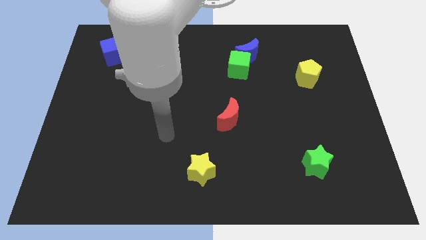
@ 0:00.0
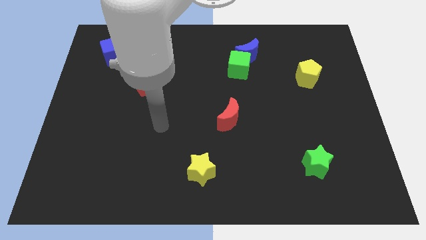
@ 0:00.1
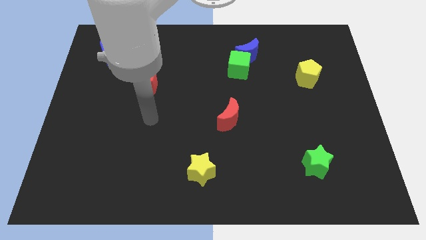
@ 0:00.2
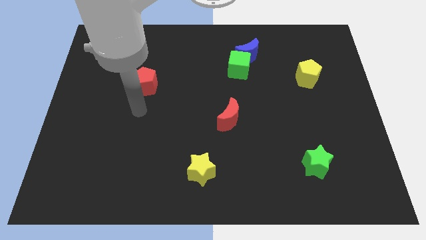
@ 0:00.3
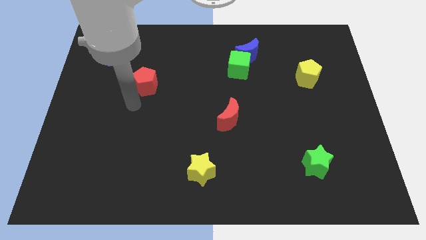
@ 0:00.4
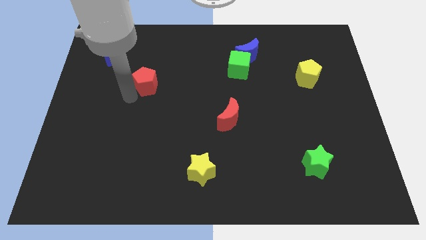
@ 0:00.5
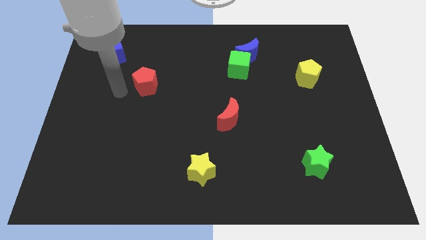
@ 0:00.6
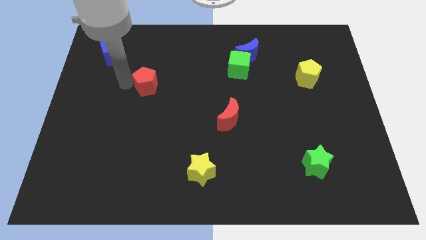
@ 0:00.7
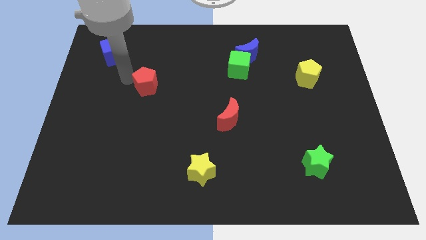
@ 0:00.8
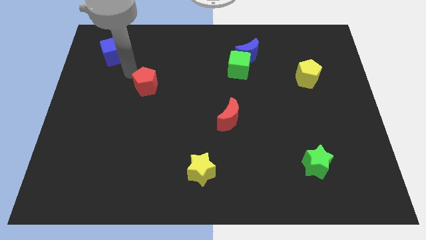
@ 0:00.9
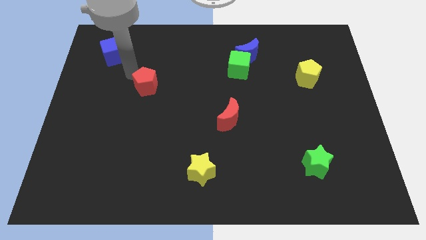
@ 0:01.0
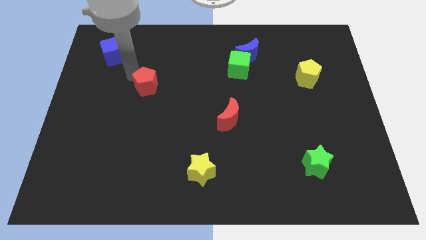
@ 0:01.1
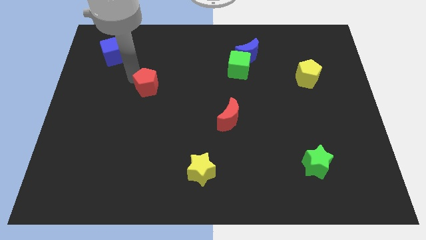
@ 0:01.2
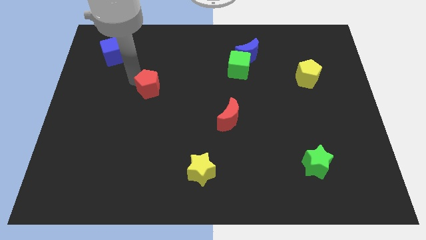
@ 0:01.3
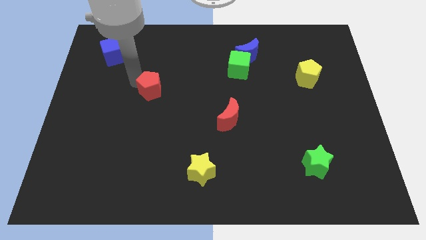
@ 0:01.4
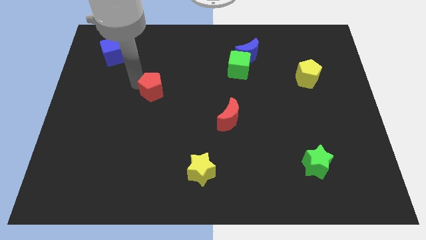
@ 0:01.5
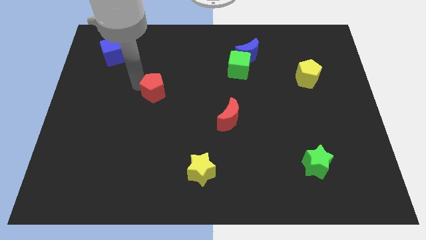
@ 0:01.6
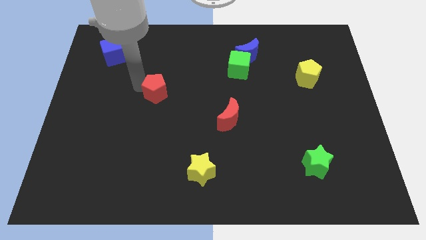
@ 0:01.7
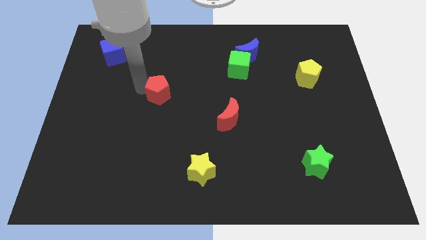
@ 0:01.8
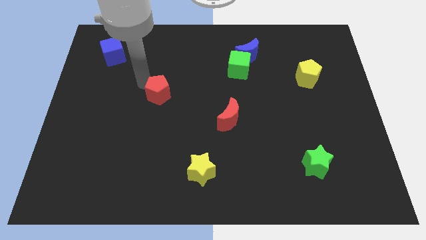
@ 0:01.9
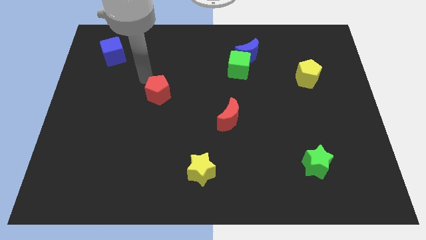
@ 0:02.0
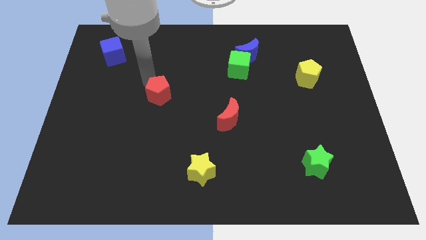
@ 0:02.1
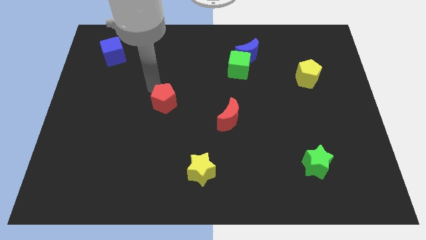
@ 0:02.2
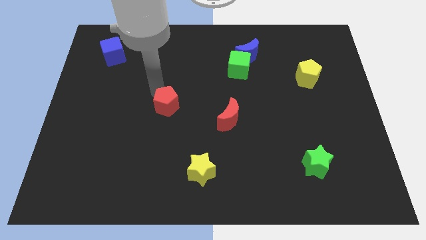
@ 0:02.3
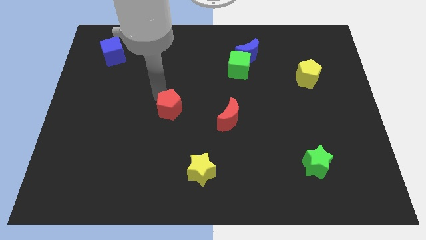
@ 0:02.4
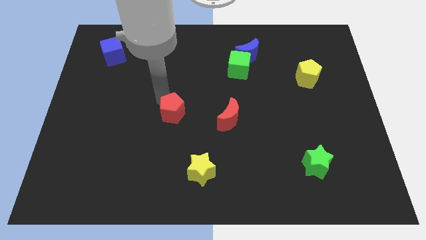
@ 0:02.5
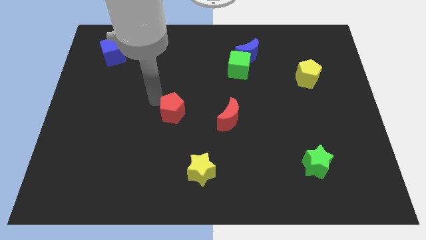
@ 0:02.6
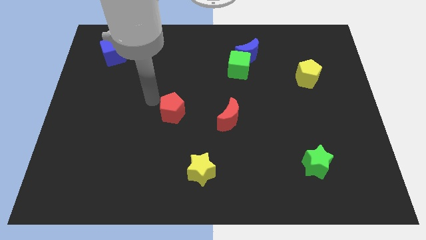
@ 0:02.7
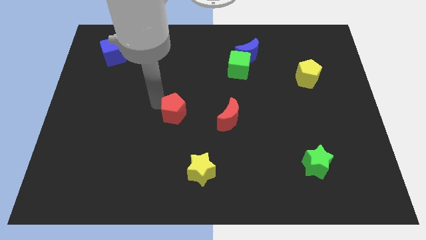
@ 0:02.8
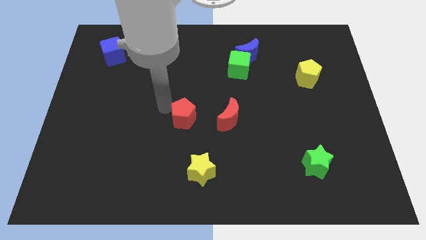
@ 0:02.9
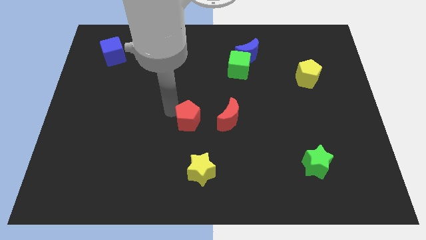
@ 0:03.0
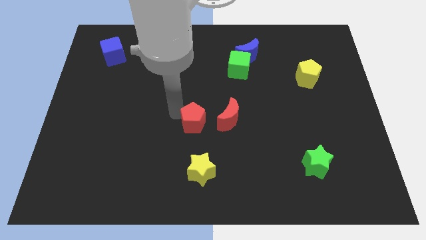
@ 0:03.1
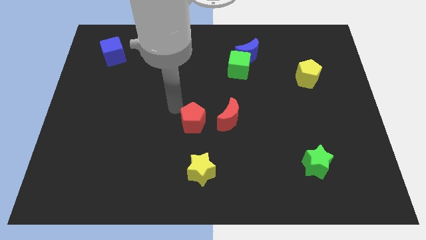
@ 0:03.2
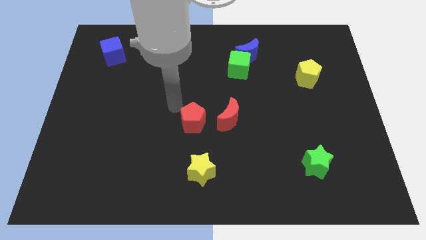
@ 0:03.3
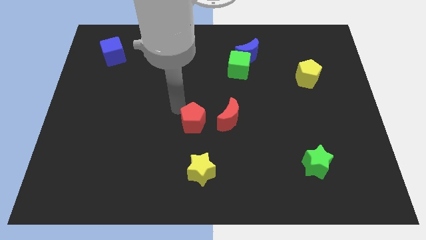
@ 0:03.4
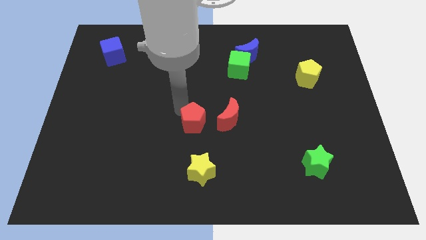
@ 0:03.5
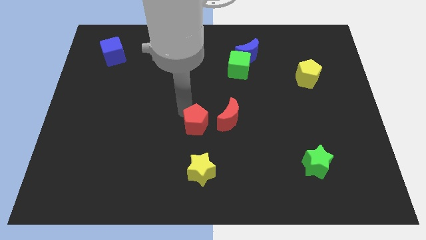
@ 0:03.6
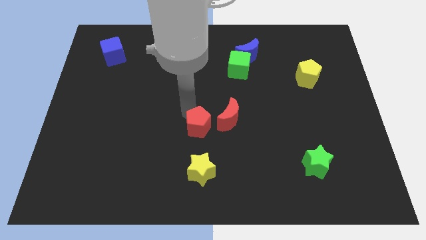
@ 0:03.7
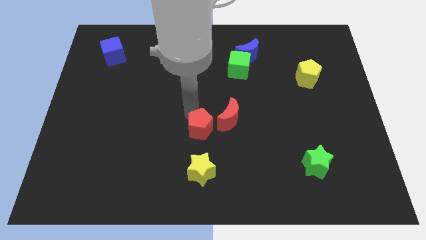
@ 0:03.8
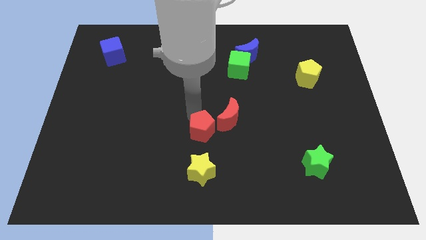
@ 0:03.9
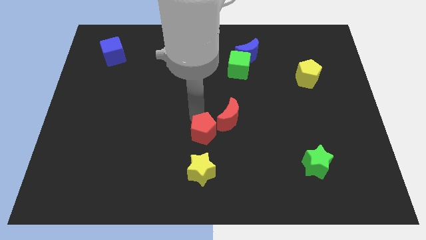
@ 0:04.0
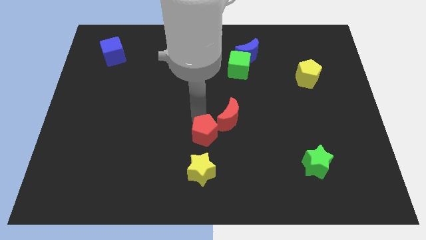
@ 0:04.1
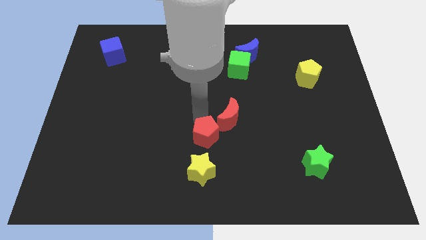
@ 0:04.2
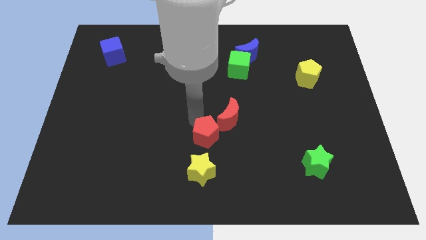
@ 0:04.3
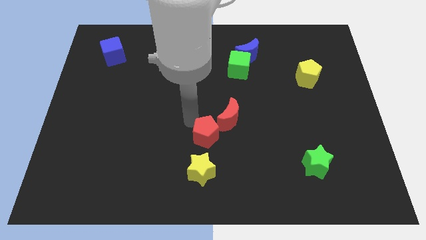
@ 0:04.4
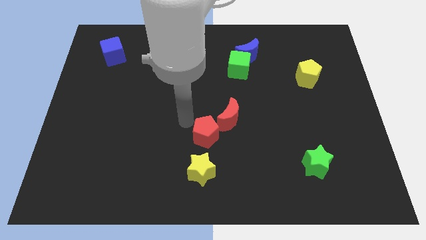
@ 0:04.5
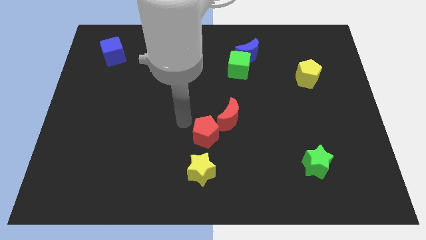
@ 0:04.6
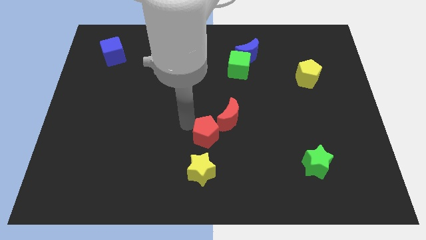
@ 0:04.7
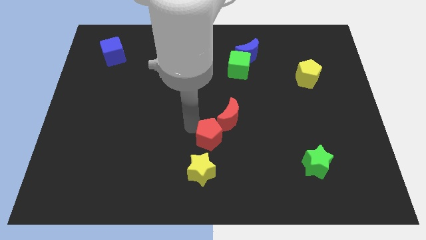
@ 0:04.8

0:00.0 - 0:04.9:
put the red pentagon below the red moon

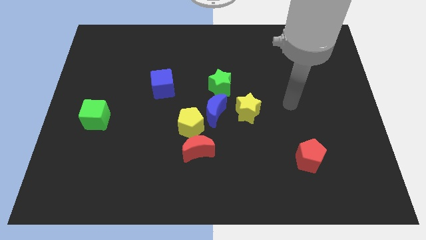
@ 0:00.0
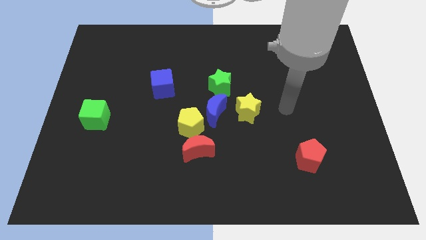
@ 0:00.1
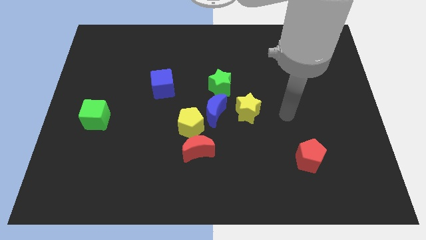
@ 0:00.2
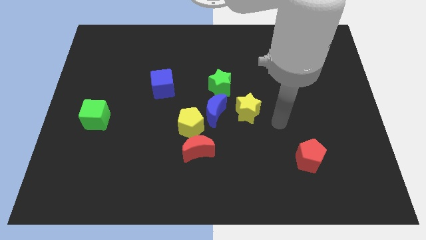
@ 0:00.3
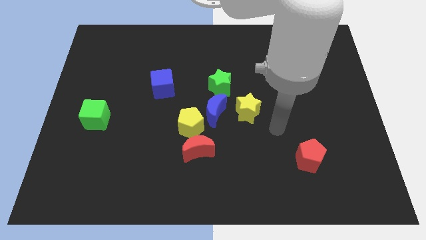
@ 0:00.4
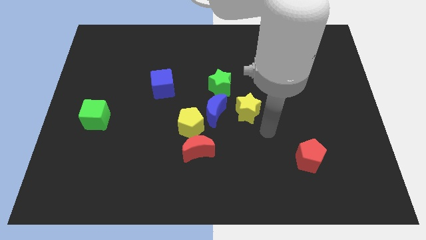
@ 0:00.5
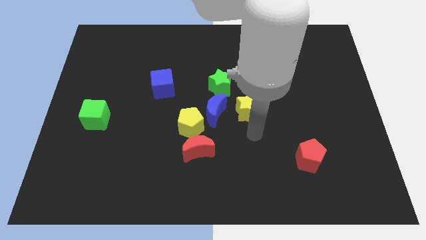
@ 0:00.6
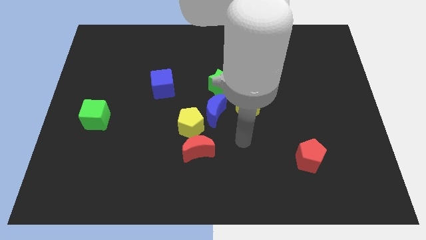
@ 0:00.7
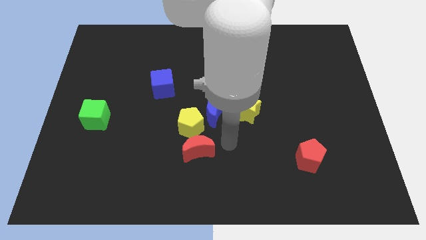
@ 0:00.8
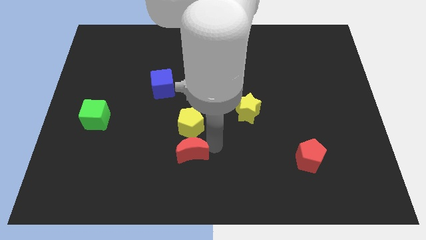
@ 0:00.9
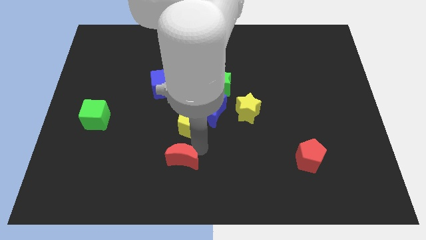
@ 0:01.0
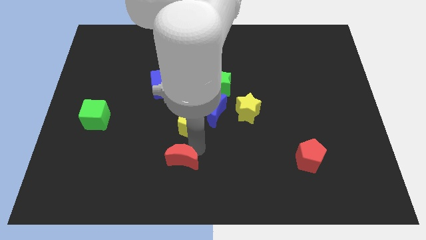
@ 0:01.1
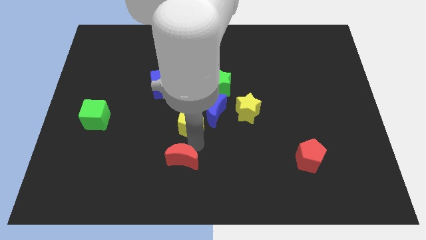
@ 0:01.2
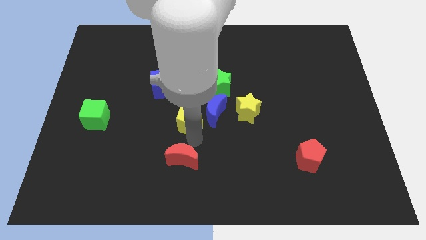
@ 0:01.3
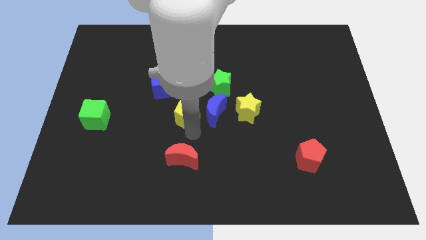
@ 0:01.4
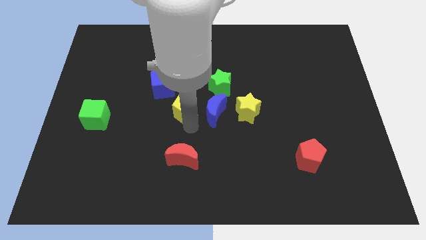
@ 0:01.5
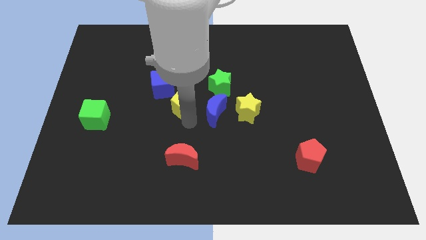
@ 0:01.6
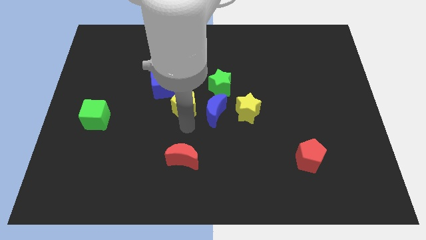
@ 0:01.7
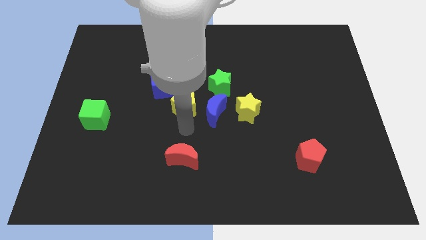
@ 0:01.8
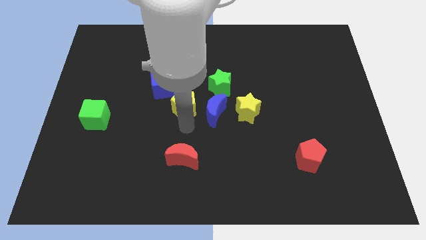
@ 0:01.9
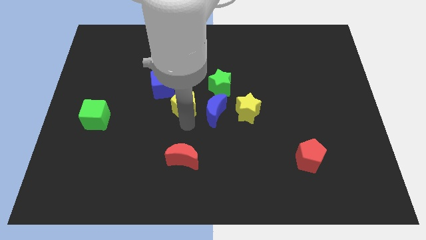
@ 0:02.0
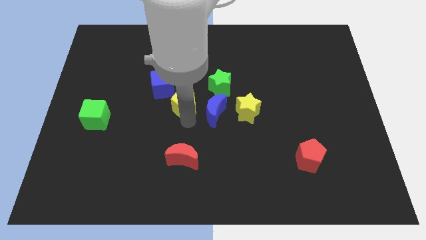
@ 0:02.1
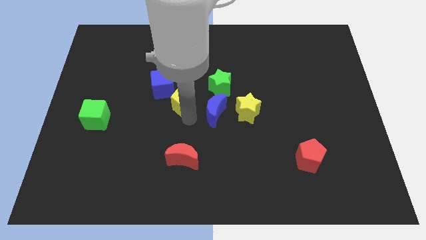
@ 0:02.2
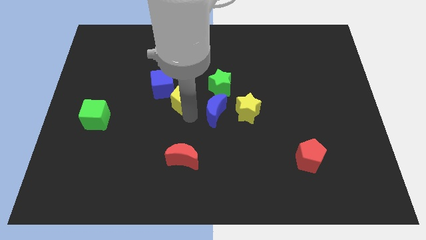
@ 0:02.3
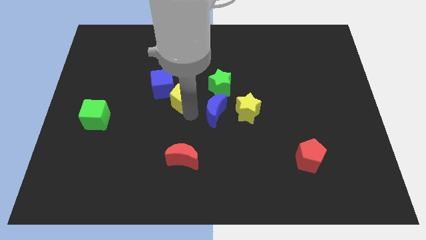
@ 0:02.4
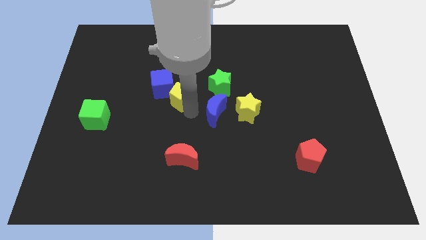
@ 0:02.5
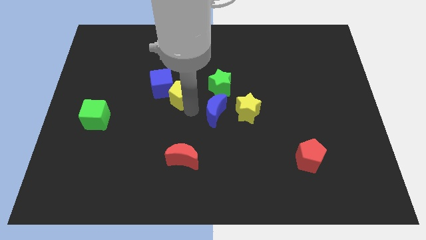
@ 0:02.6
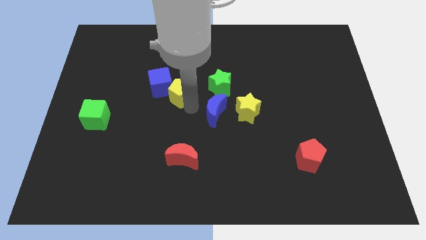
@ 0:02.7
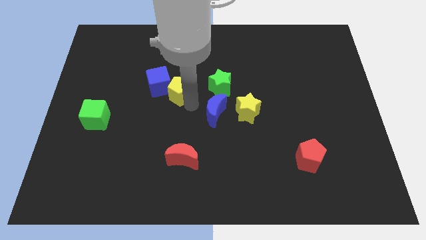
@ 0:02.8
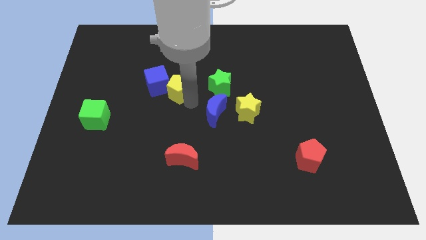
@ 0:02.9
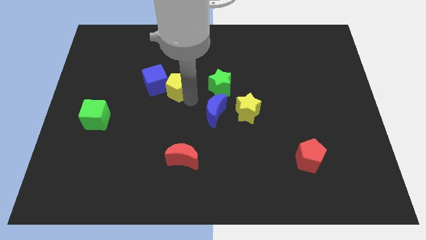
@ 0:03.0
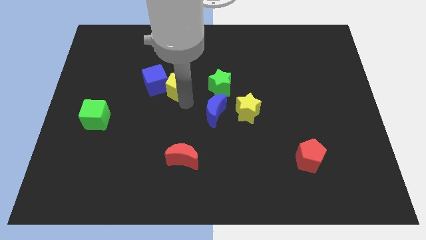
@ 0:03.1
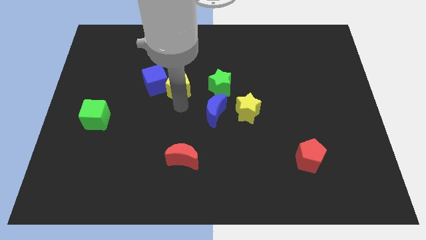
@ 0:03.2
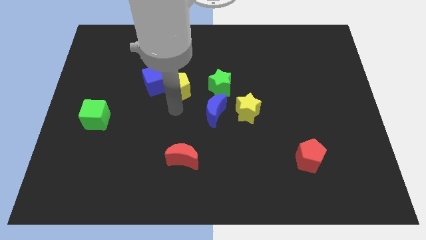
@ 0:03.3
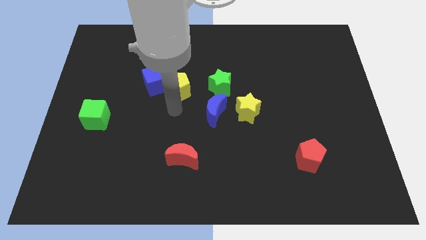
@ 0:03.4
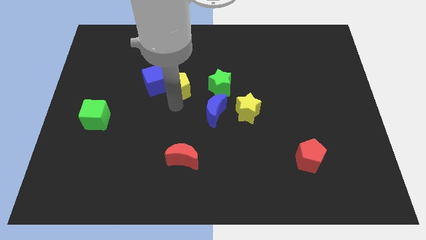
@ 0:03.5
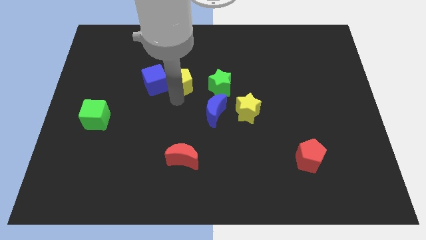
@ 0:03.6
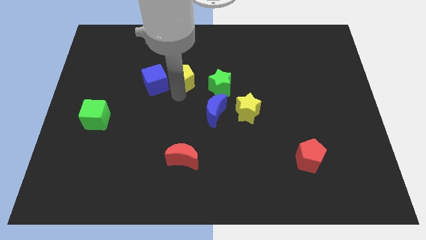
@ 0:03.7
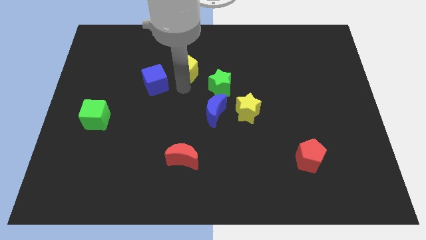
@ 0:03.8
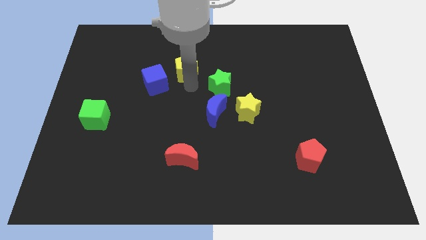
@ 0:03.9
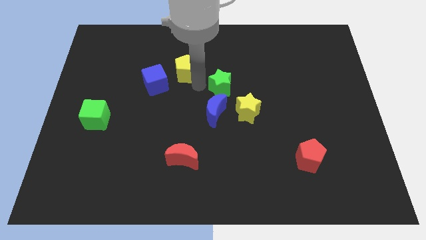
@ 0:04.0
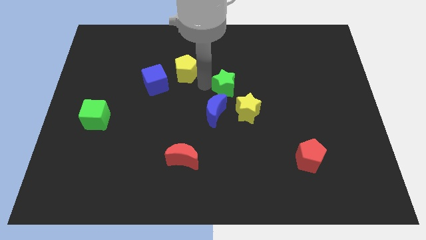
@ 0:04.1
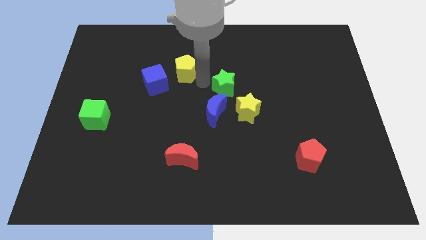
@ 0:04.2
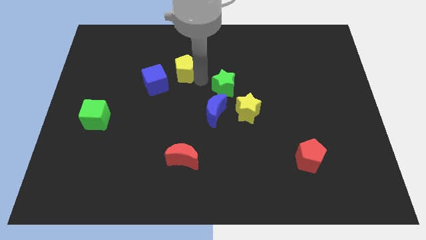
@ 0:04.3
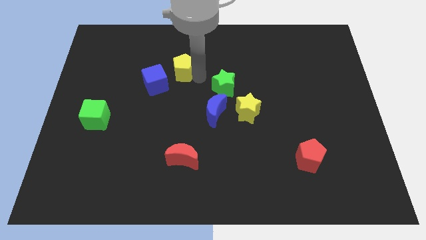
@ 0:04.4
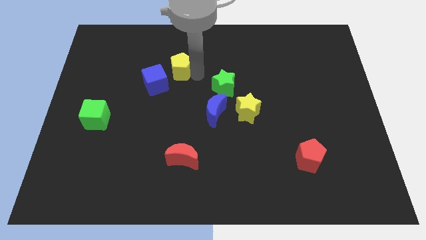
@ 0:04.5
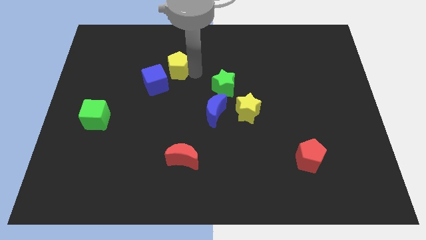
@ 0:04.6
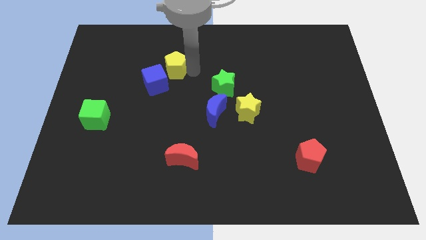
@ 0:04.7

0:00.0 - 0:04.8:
put the yellow pentagon to the top side of the blue cube
